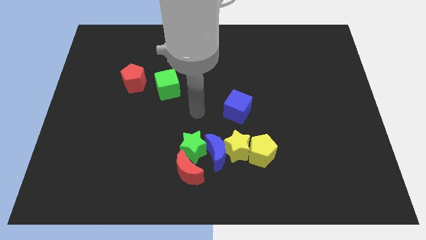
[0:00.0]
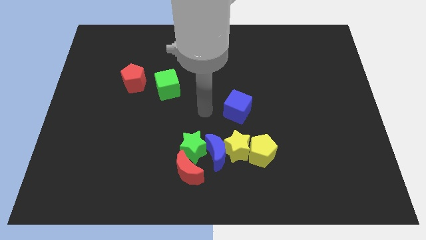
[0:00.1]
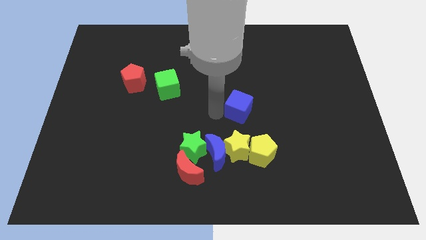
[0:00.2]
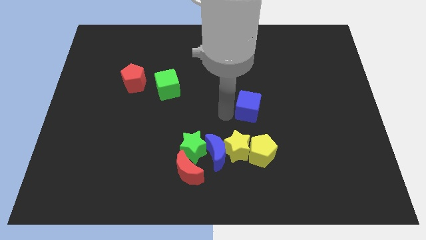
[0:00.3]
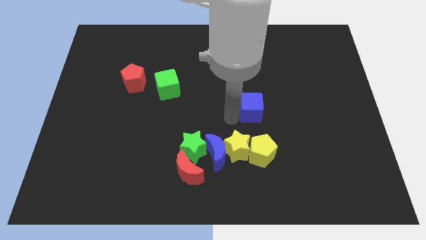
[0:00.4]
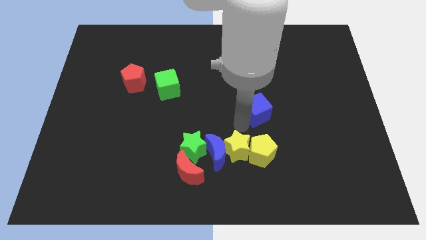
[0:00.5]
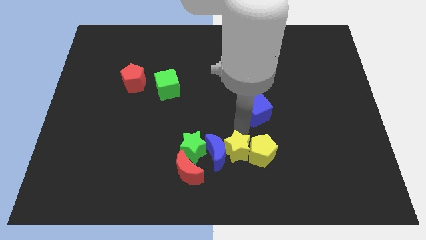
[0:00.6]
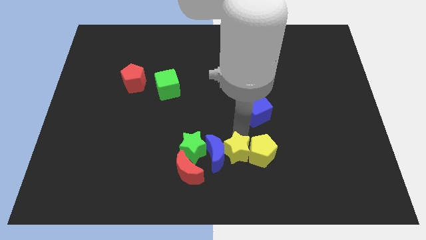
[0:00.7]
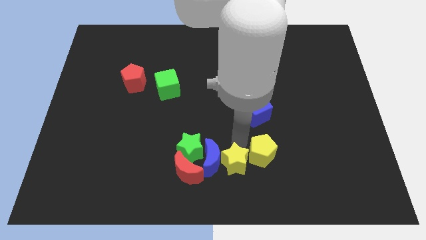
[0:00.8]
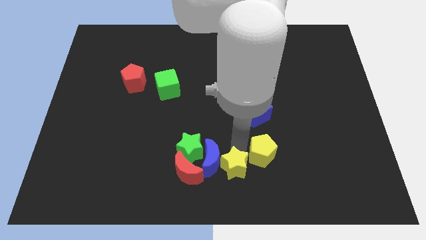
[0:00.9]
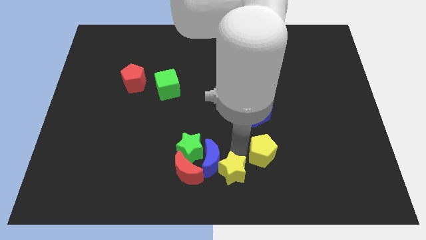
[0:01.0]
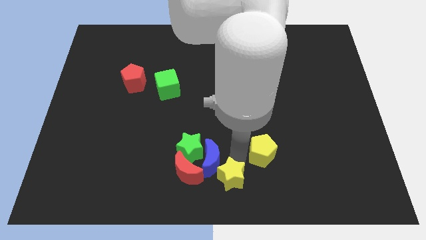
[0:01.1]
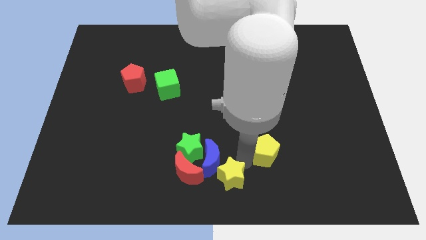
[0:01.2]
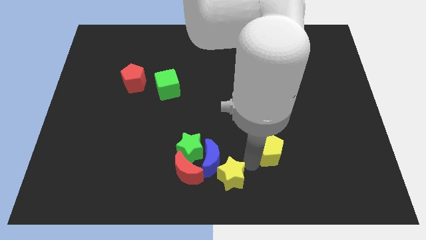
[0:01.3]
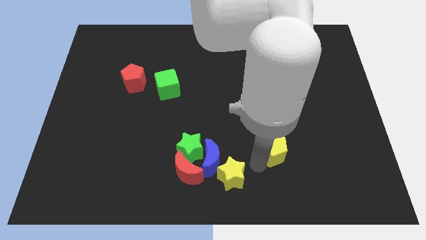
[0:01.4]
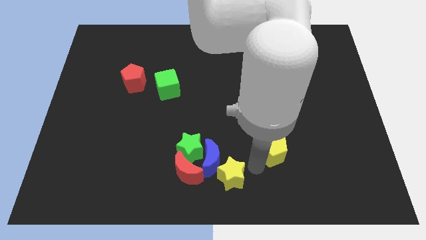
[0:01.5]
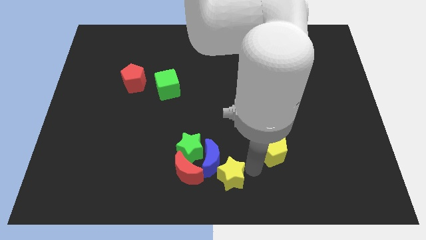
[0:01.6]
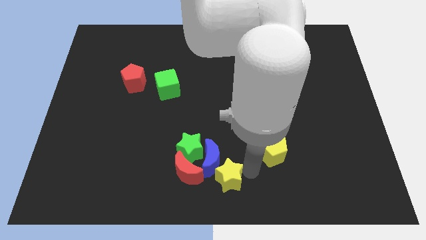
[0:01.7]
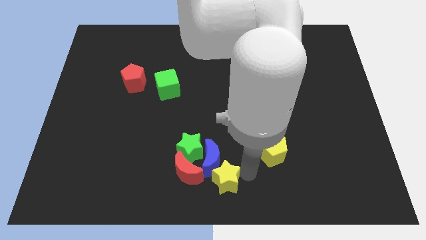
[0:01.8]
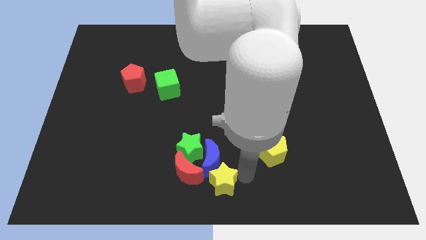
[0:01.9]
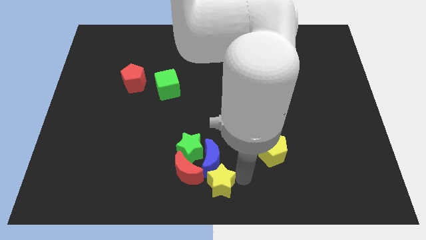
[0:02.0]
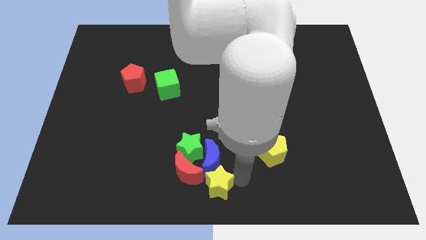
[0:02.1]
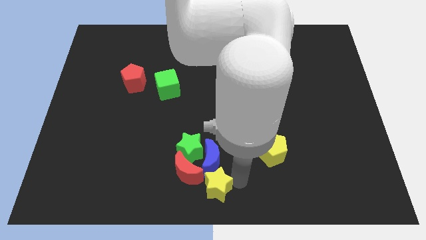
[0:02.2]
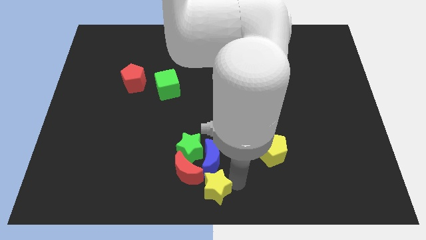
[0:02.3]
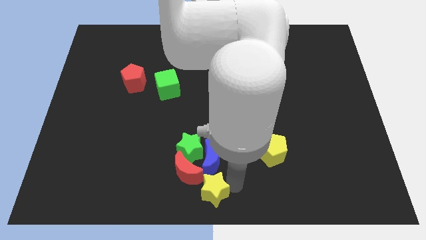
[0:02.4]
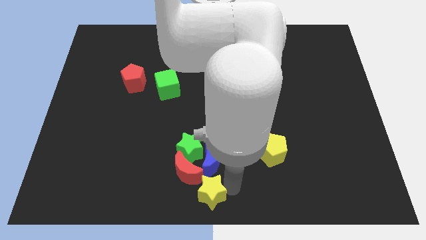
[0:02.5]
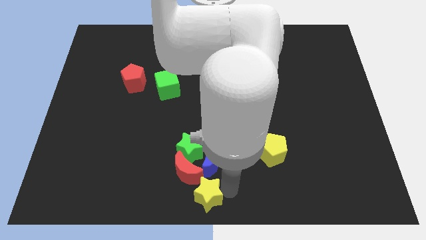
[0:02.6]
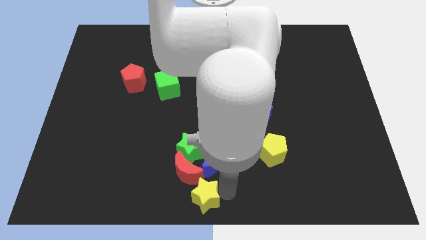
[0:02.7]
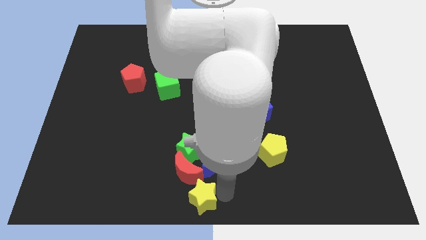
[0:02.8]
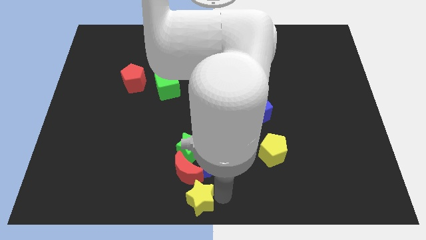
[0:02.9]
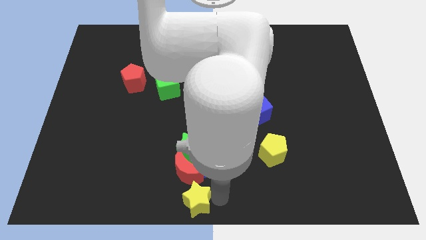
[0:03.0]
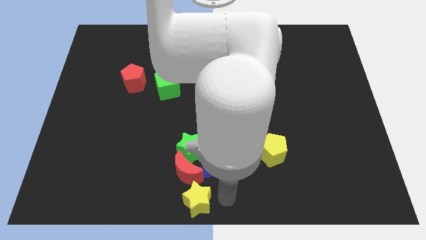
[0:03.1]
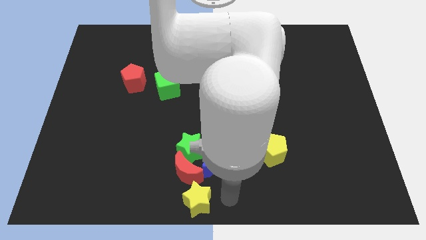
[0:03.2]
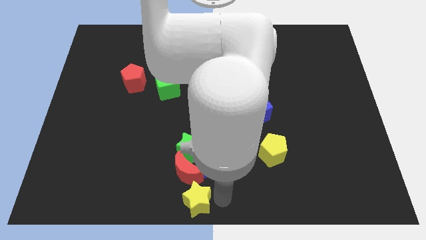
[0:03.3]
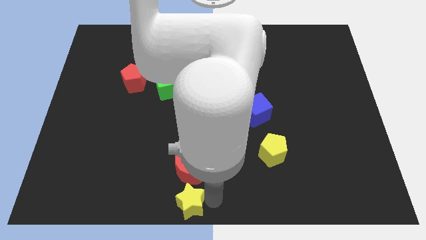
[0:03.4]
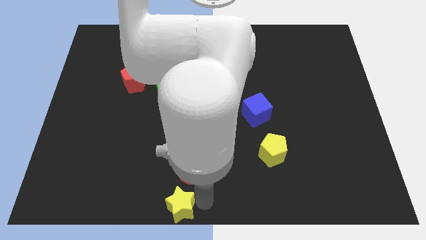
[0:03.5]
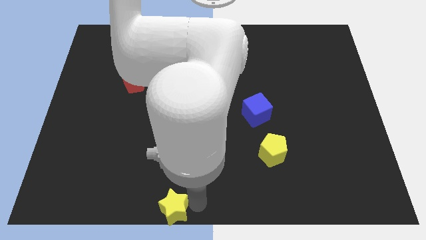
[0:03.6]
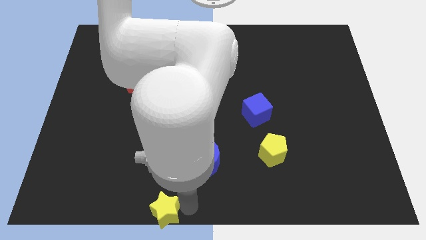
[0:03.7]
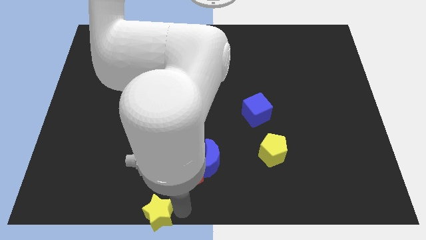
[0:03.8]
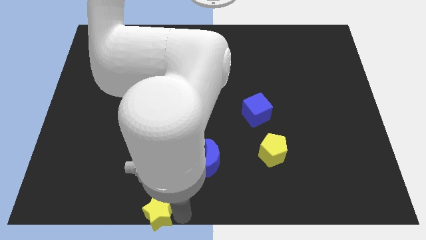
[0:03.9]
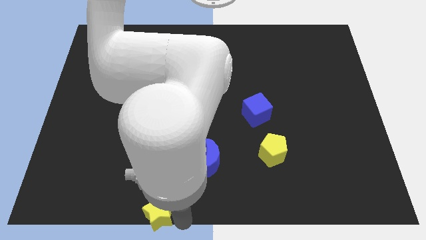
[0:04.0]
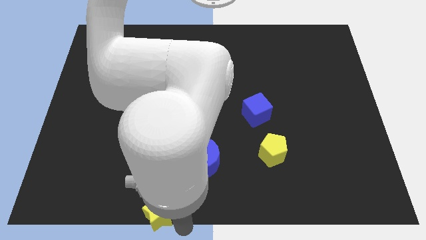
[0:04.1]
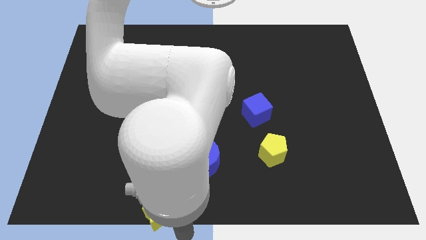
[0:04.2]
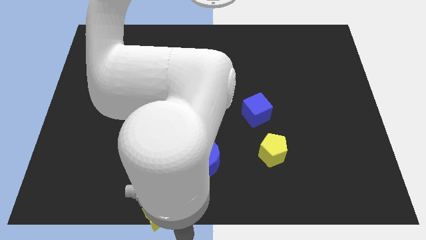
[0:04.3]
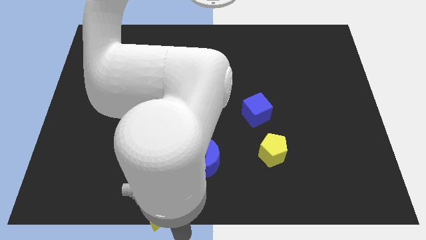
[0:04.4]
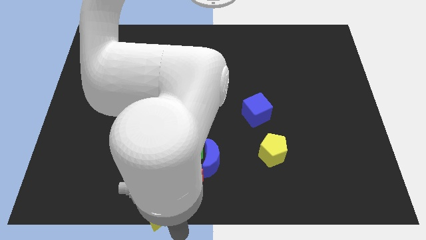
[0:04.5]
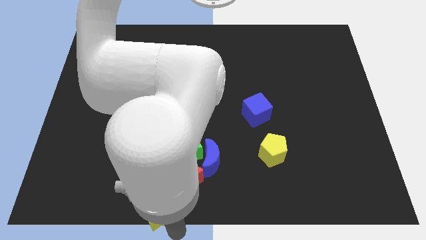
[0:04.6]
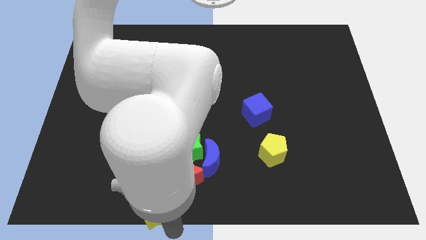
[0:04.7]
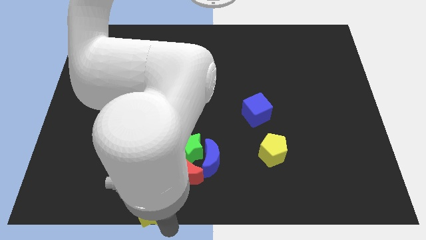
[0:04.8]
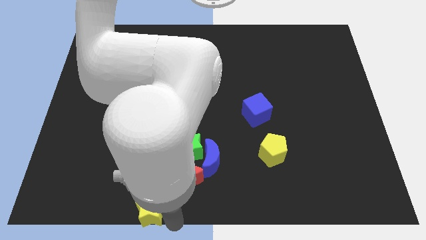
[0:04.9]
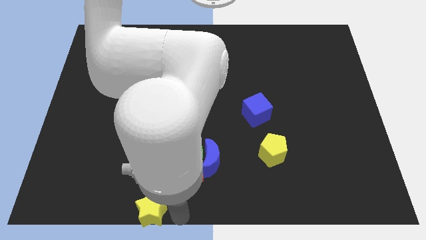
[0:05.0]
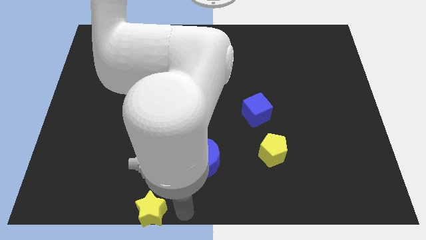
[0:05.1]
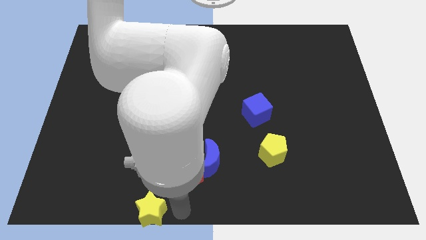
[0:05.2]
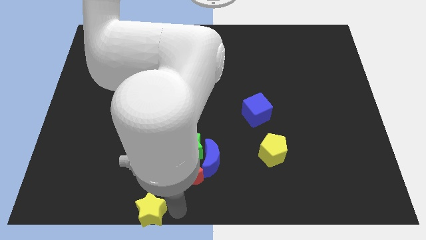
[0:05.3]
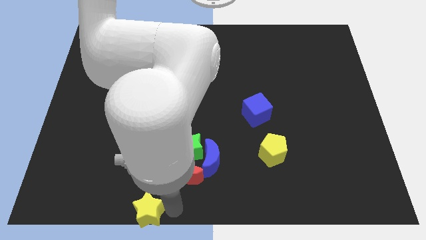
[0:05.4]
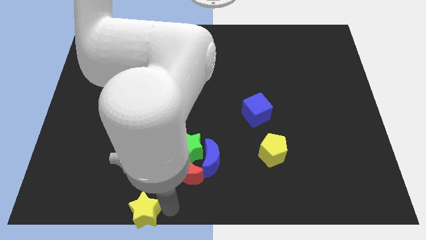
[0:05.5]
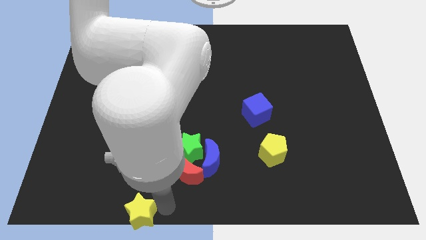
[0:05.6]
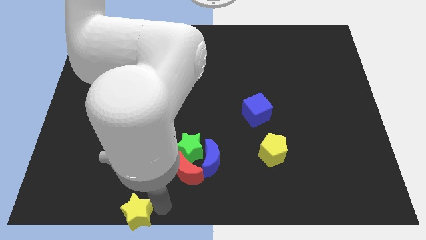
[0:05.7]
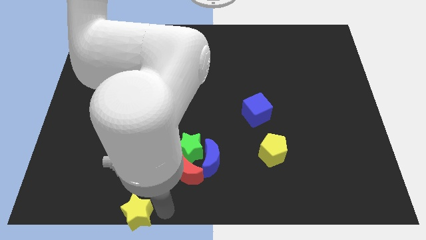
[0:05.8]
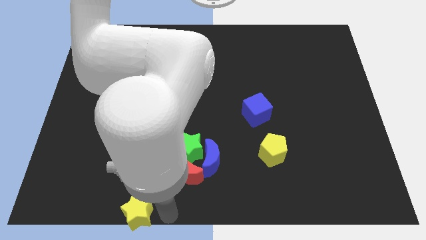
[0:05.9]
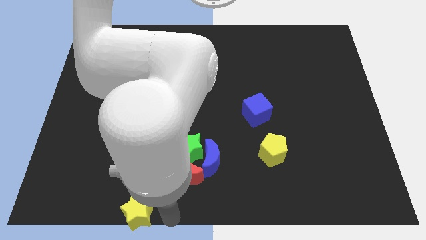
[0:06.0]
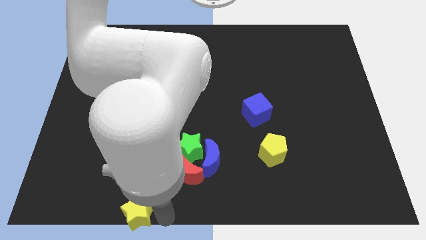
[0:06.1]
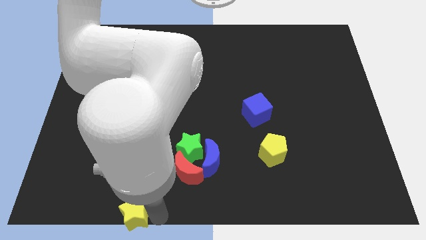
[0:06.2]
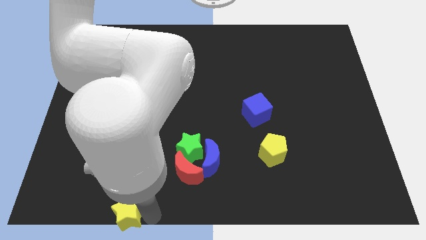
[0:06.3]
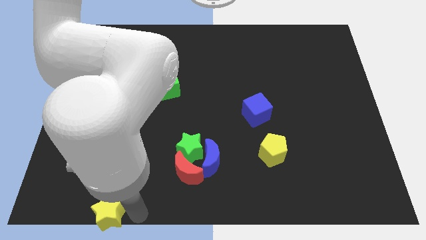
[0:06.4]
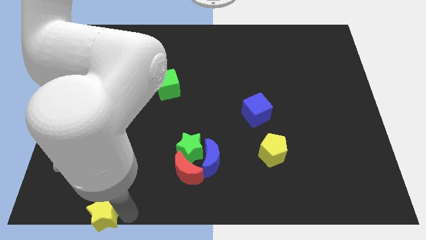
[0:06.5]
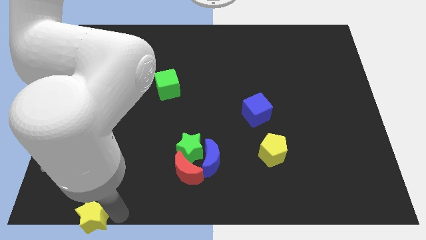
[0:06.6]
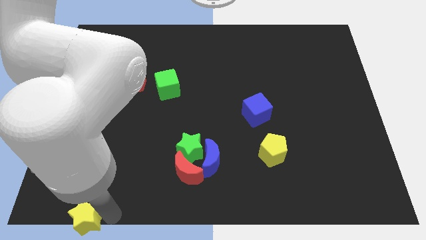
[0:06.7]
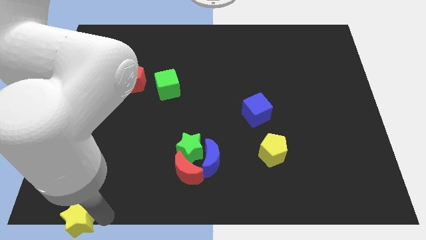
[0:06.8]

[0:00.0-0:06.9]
put the yellow star to the bottom left

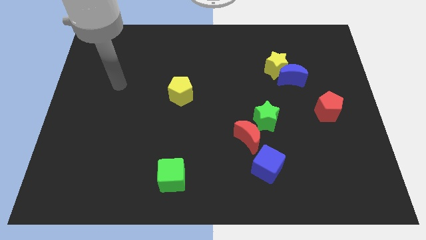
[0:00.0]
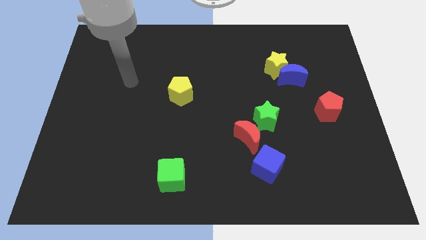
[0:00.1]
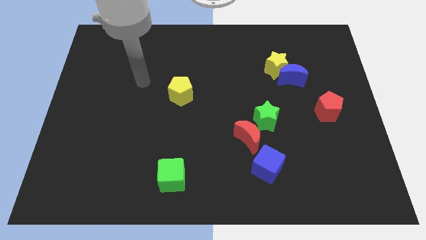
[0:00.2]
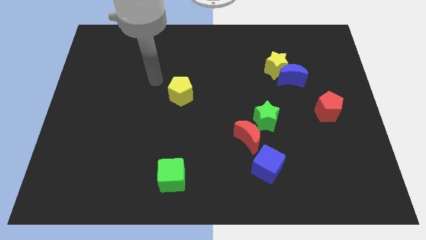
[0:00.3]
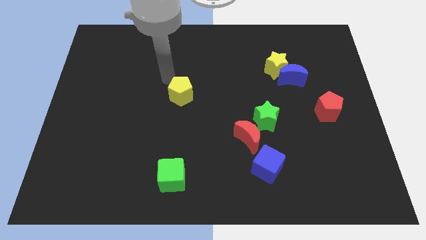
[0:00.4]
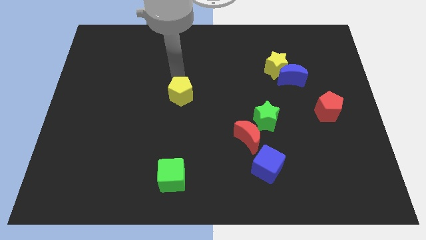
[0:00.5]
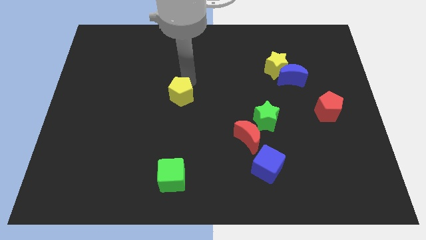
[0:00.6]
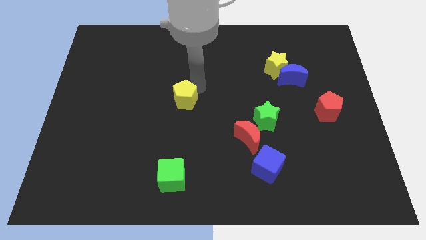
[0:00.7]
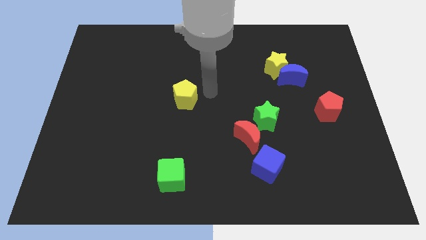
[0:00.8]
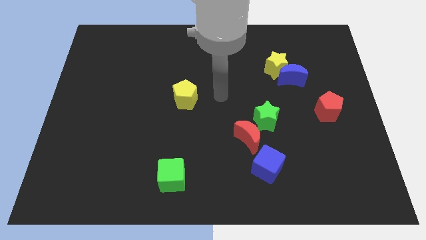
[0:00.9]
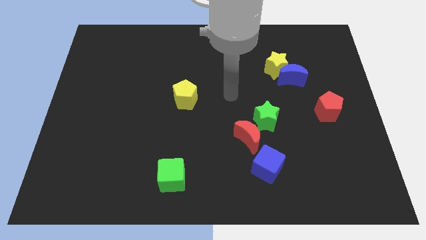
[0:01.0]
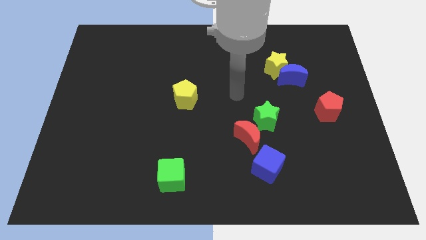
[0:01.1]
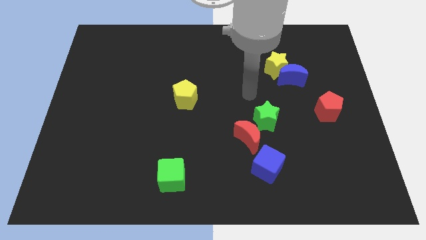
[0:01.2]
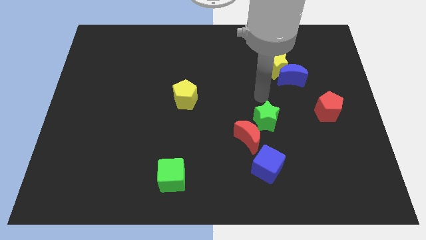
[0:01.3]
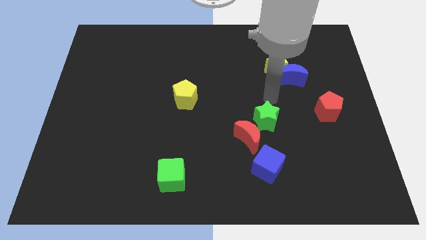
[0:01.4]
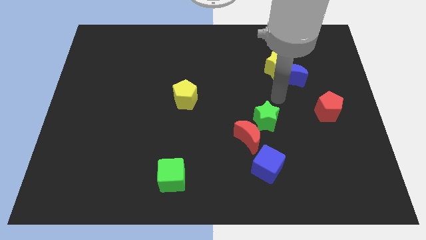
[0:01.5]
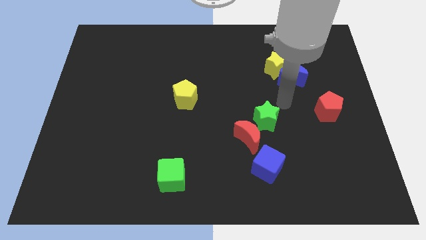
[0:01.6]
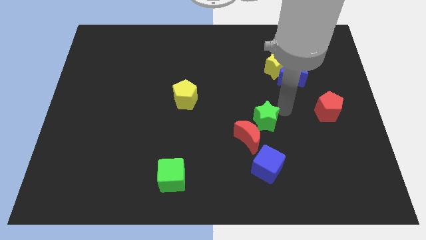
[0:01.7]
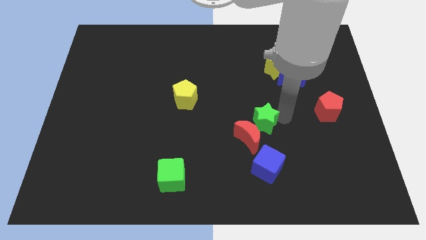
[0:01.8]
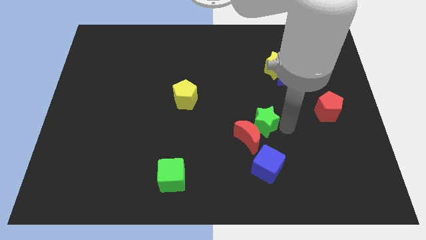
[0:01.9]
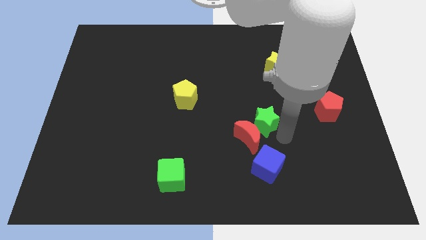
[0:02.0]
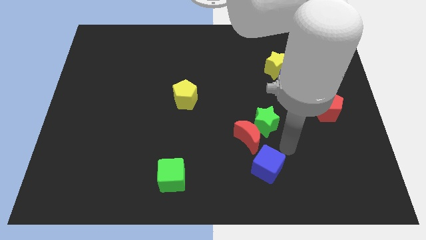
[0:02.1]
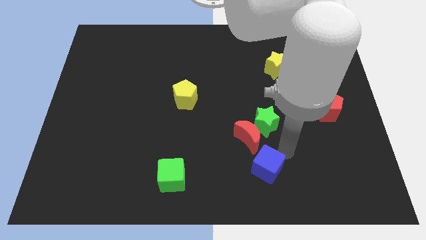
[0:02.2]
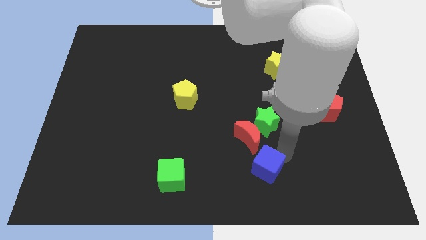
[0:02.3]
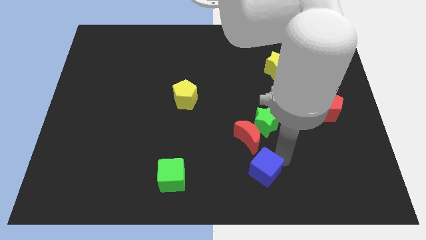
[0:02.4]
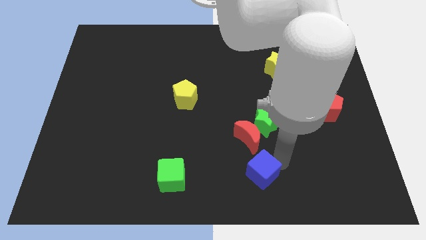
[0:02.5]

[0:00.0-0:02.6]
push the blue cube to the bottom
